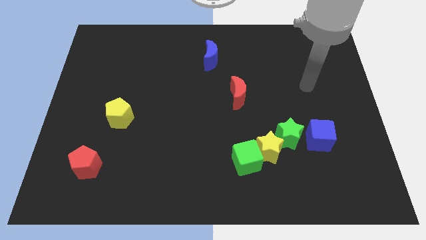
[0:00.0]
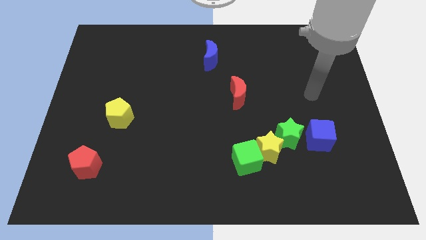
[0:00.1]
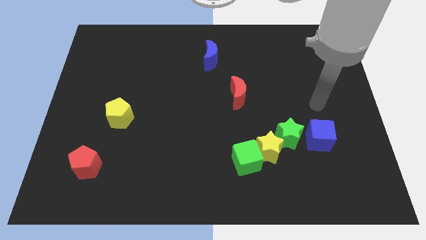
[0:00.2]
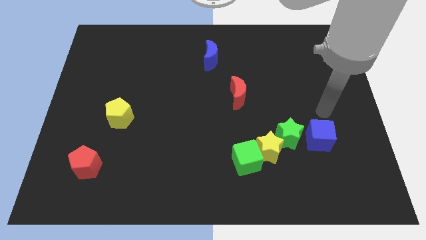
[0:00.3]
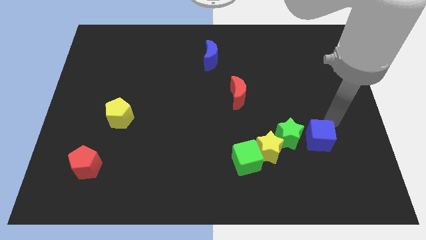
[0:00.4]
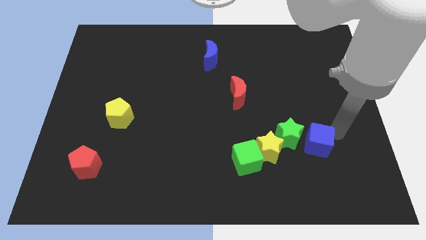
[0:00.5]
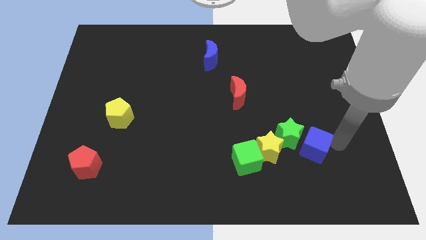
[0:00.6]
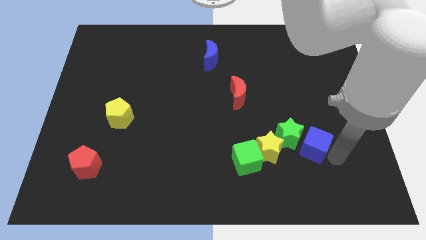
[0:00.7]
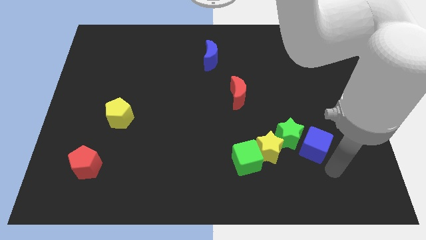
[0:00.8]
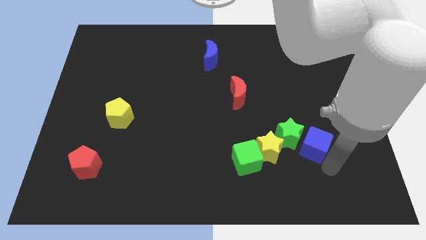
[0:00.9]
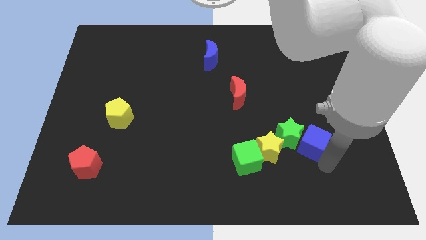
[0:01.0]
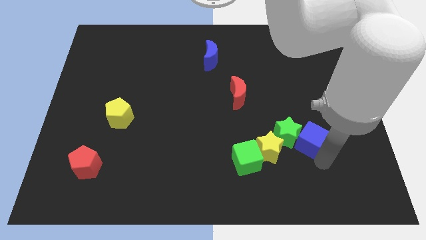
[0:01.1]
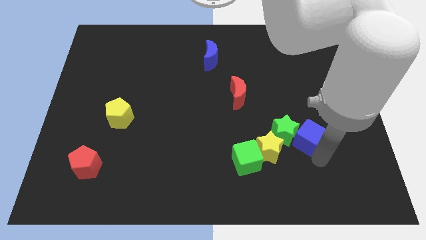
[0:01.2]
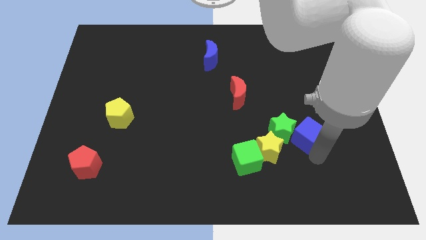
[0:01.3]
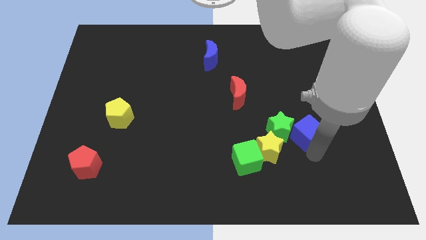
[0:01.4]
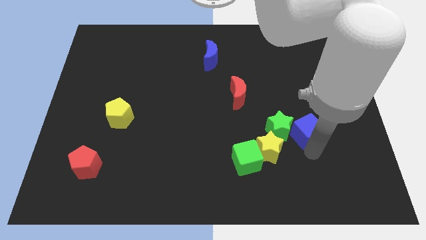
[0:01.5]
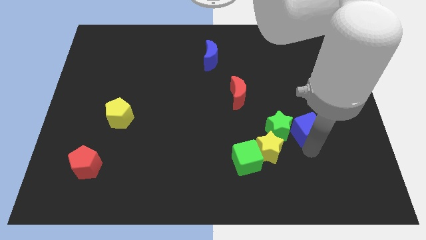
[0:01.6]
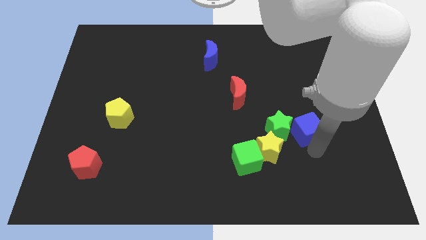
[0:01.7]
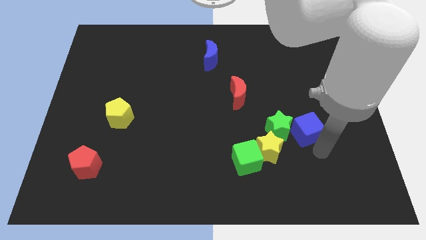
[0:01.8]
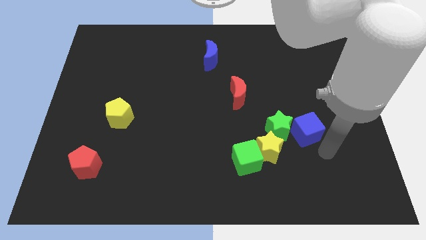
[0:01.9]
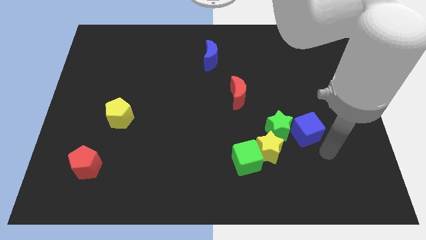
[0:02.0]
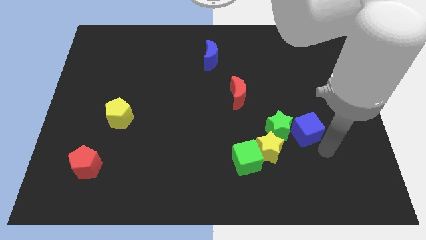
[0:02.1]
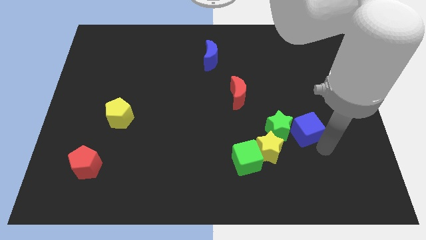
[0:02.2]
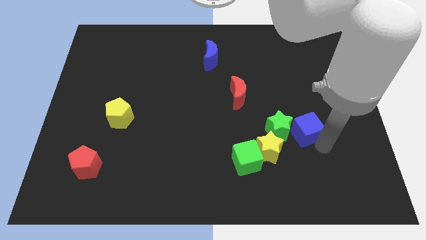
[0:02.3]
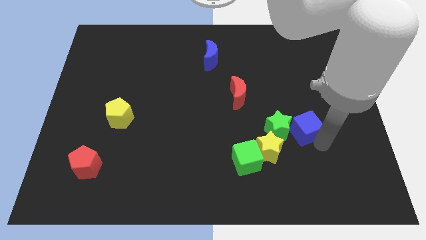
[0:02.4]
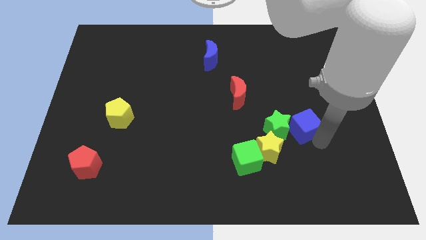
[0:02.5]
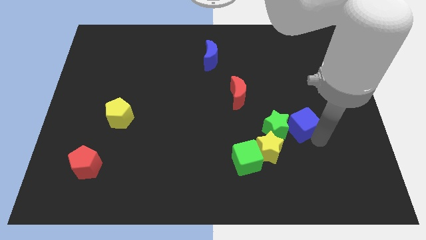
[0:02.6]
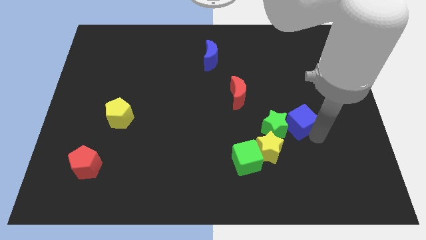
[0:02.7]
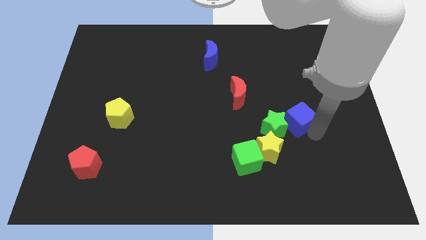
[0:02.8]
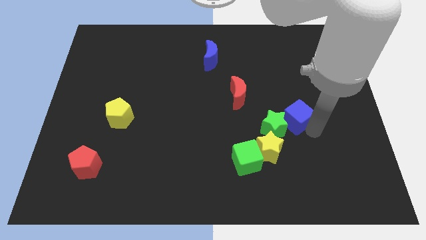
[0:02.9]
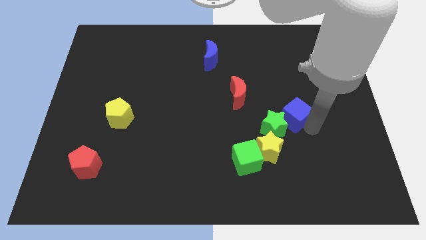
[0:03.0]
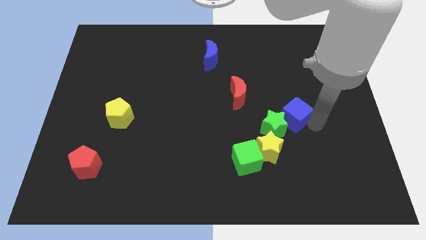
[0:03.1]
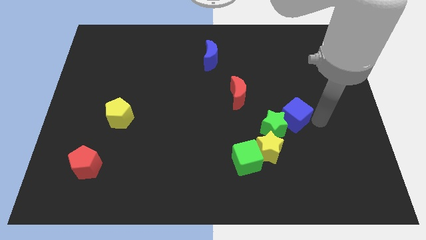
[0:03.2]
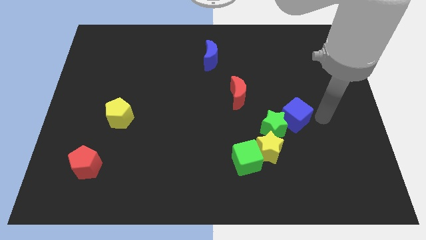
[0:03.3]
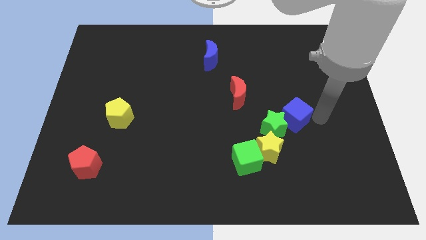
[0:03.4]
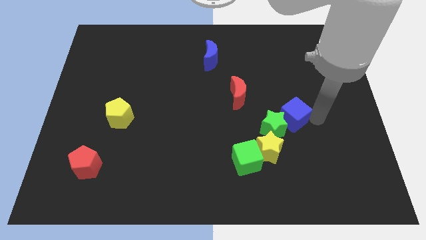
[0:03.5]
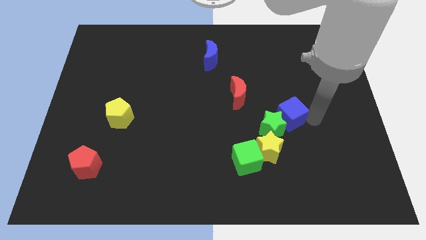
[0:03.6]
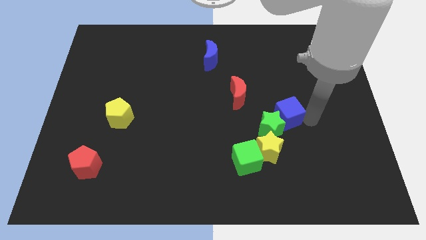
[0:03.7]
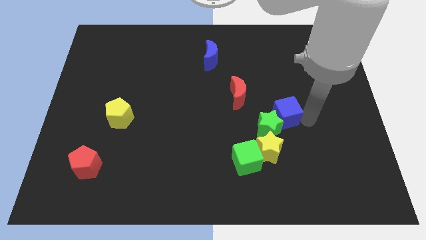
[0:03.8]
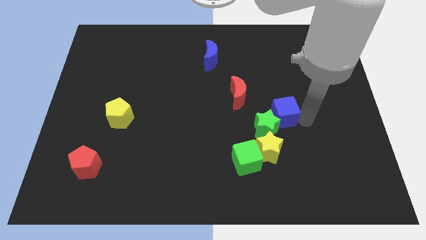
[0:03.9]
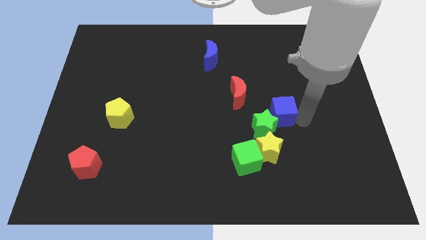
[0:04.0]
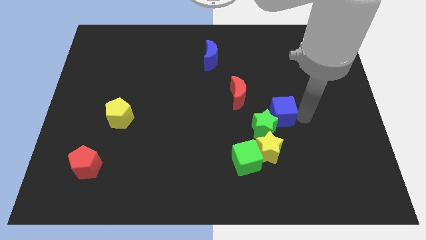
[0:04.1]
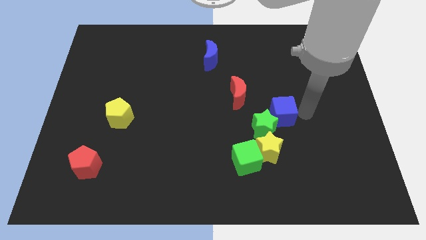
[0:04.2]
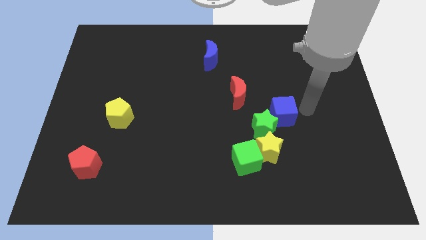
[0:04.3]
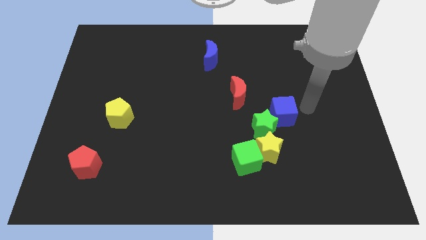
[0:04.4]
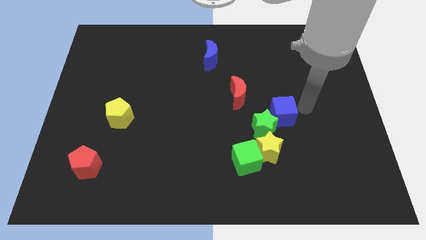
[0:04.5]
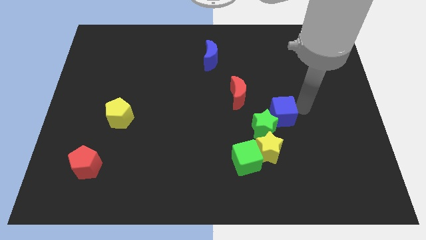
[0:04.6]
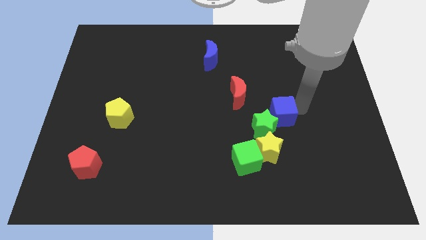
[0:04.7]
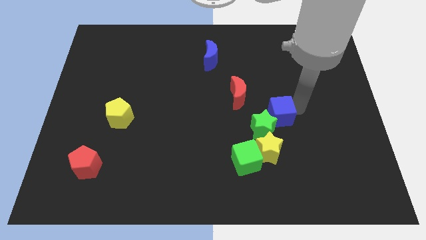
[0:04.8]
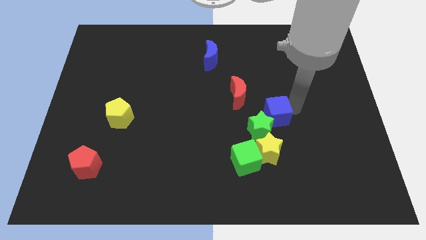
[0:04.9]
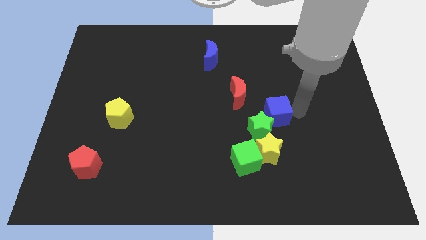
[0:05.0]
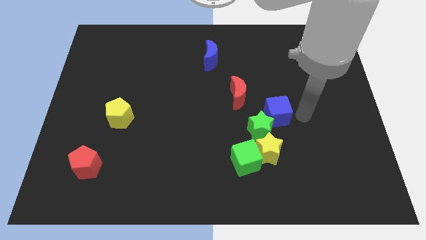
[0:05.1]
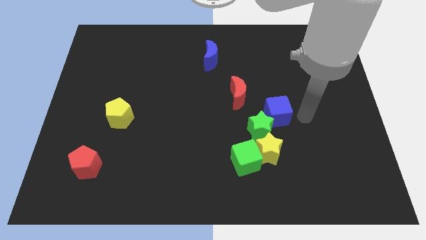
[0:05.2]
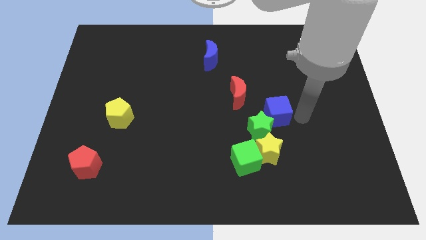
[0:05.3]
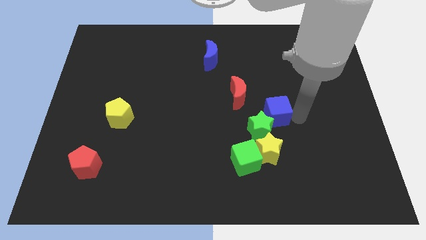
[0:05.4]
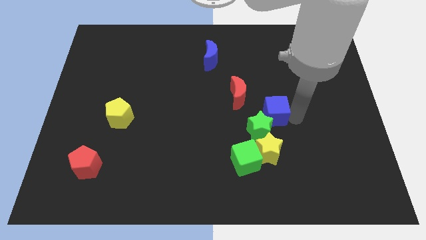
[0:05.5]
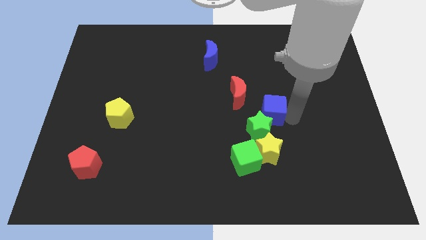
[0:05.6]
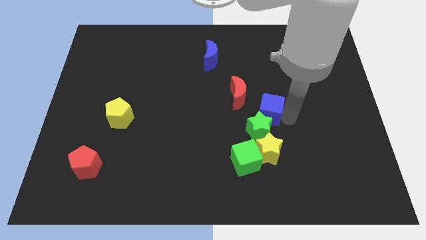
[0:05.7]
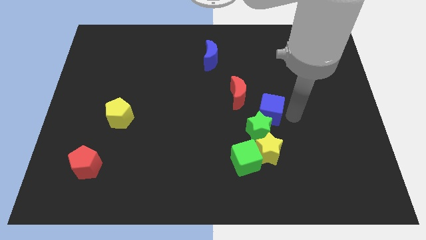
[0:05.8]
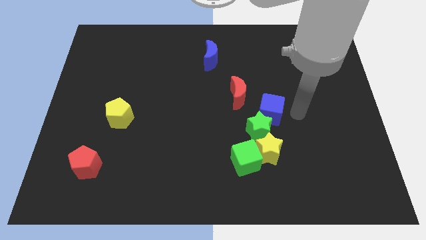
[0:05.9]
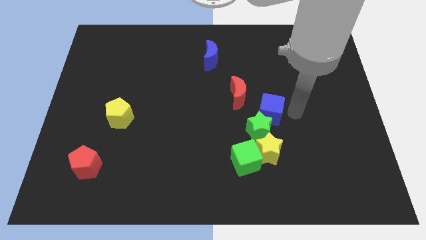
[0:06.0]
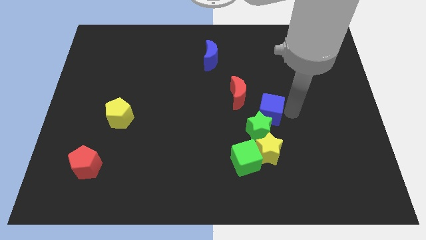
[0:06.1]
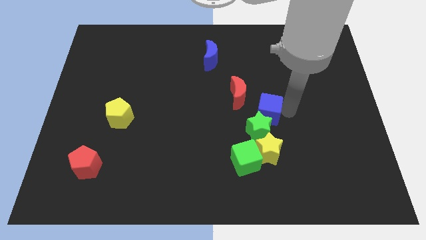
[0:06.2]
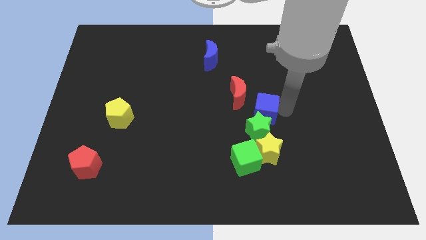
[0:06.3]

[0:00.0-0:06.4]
put the blue cube to the center
